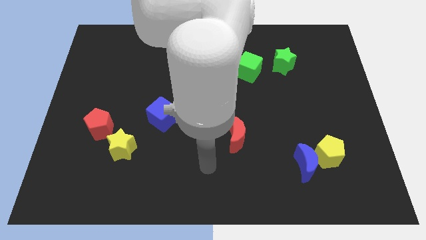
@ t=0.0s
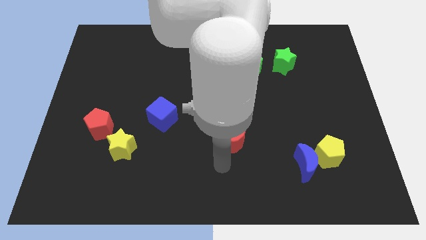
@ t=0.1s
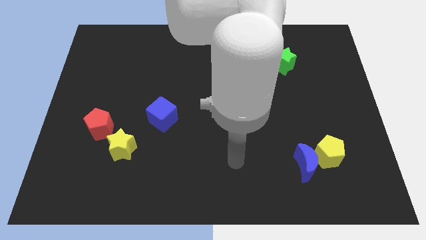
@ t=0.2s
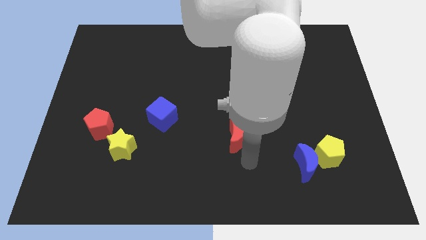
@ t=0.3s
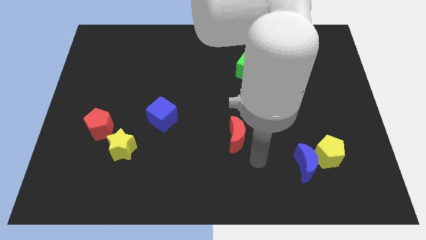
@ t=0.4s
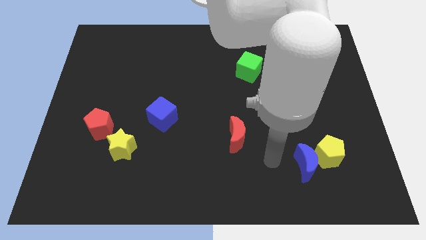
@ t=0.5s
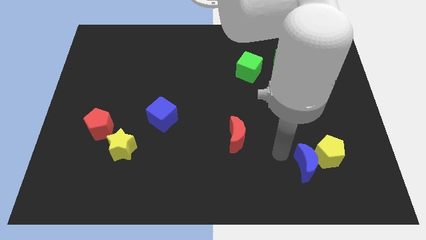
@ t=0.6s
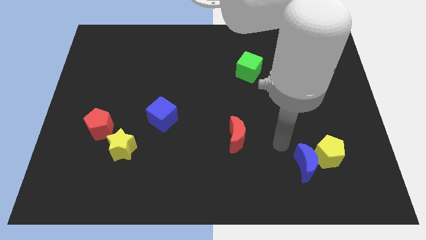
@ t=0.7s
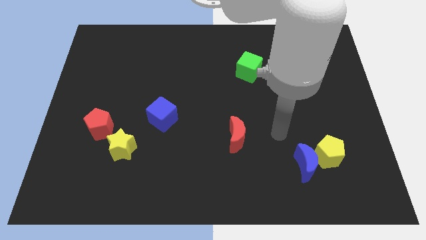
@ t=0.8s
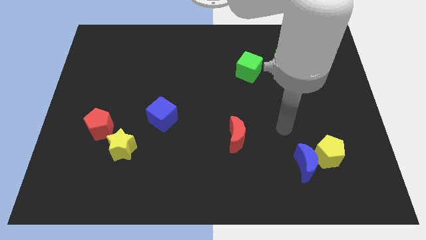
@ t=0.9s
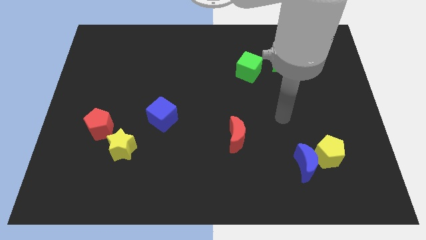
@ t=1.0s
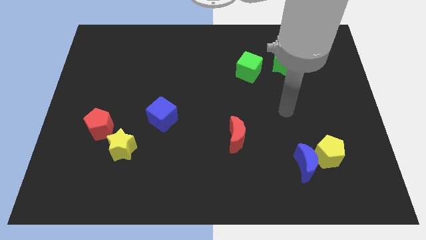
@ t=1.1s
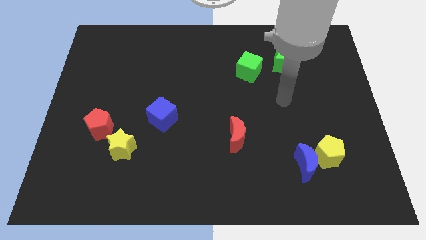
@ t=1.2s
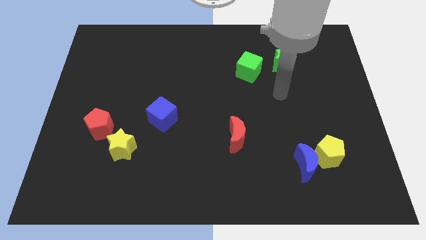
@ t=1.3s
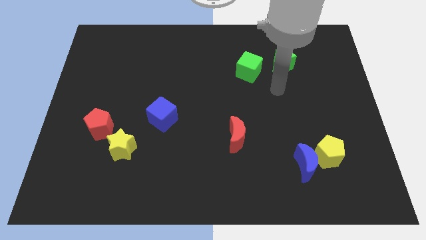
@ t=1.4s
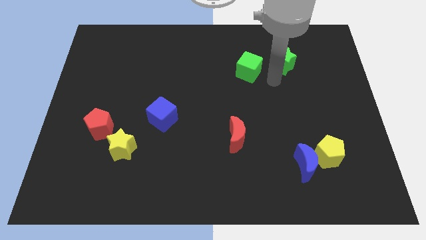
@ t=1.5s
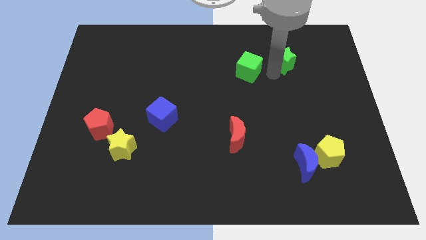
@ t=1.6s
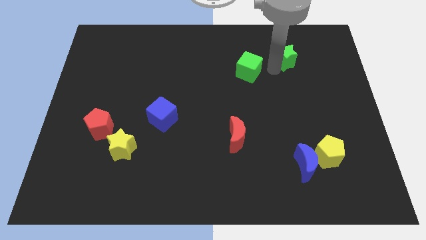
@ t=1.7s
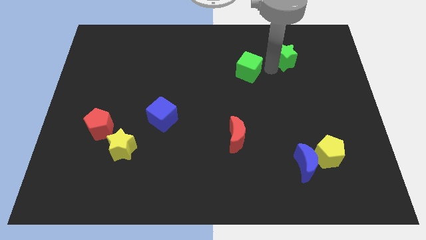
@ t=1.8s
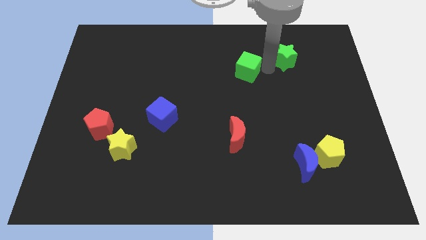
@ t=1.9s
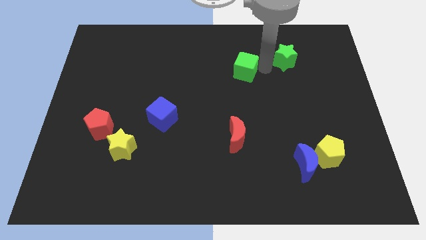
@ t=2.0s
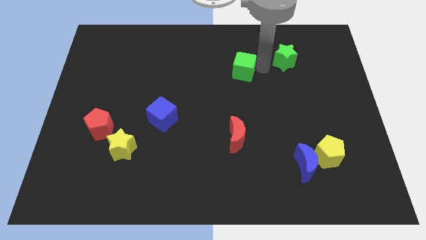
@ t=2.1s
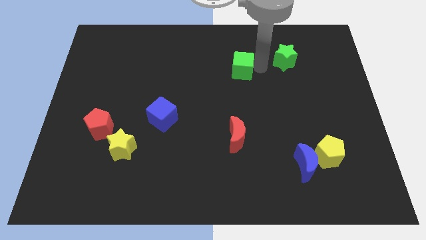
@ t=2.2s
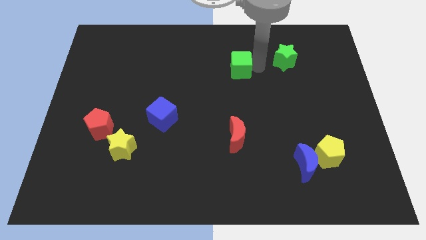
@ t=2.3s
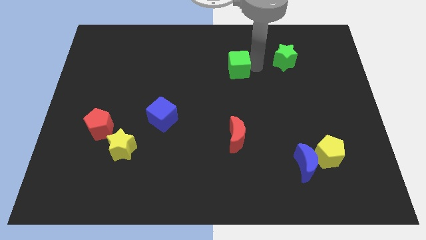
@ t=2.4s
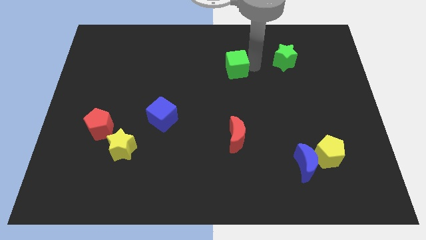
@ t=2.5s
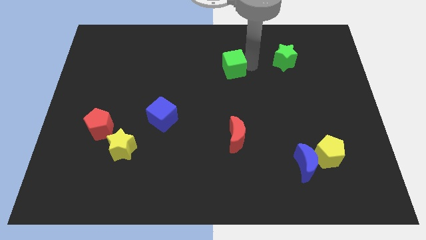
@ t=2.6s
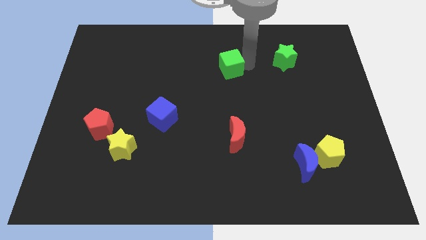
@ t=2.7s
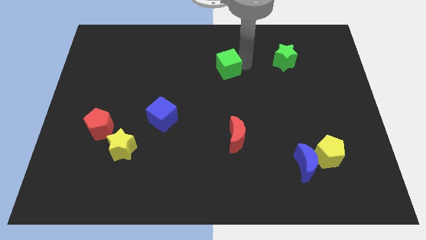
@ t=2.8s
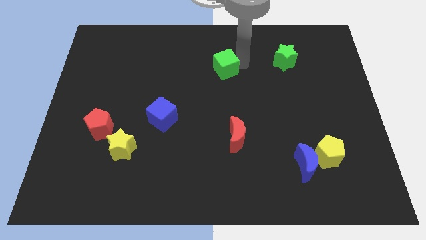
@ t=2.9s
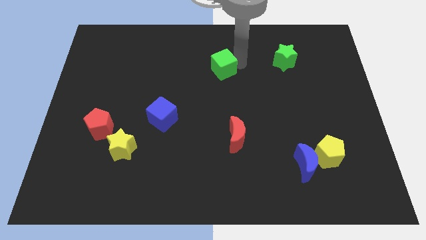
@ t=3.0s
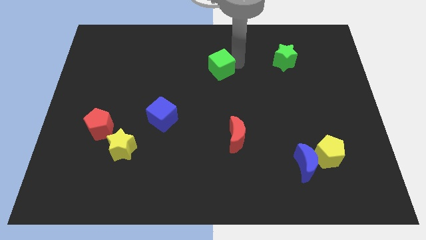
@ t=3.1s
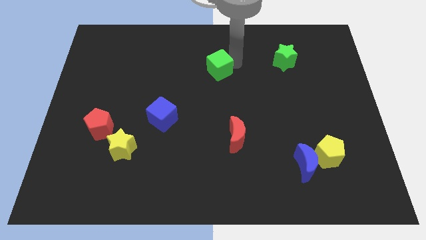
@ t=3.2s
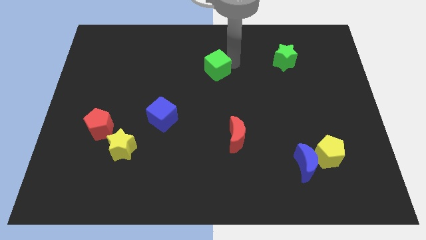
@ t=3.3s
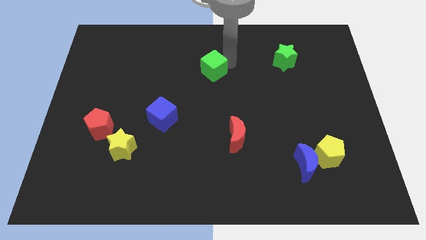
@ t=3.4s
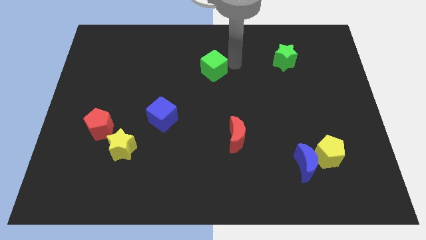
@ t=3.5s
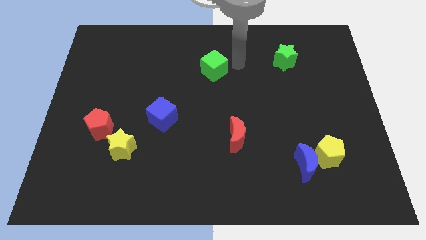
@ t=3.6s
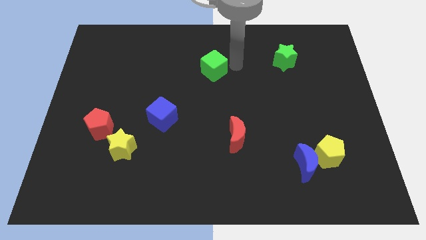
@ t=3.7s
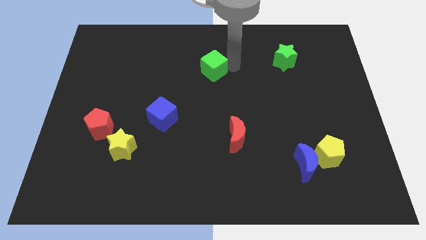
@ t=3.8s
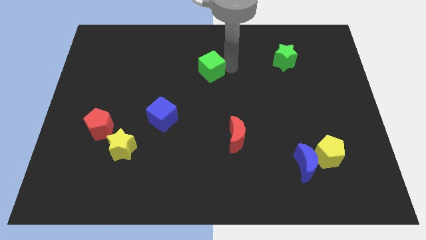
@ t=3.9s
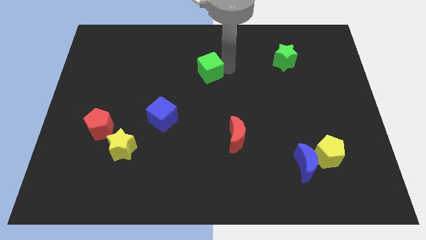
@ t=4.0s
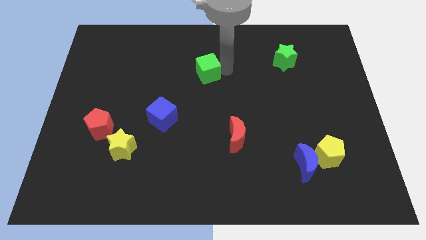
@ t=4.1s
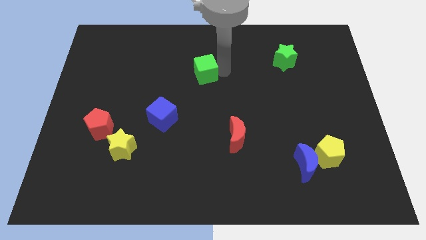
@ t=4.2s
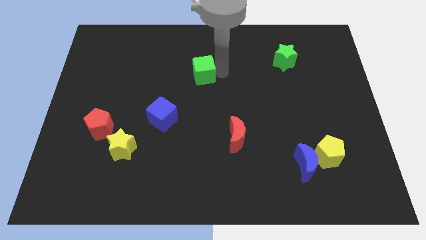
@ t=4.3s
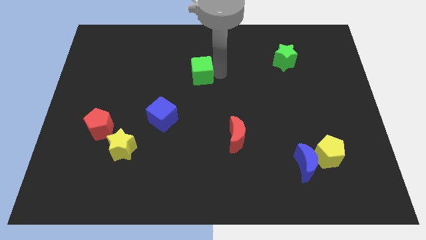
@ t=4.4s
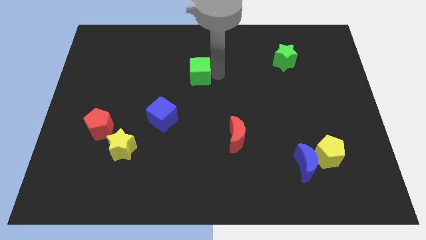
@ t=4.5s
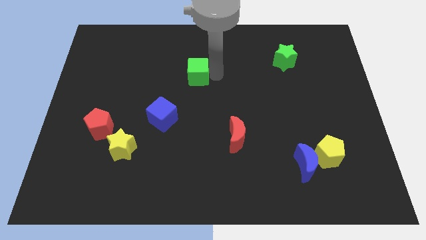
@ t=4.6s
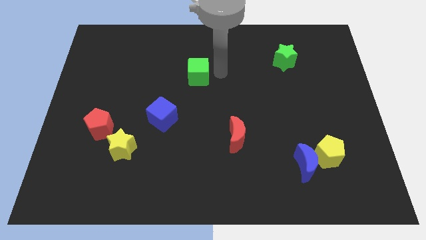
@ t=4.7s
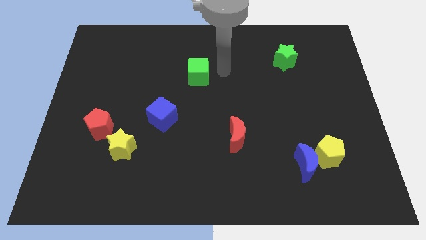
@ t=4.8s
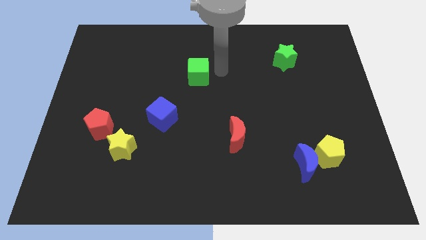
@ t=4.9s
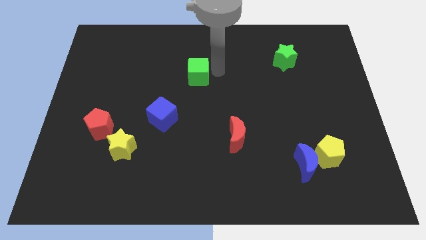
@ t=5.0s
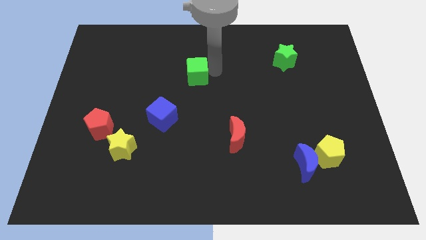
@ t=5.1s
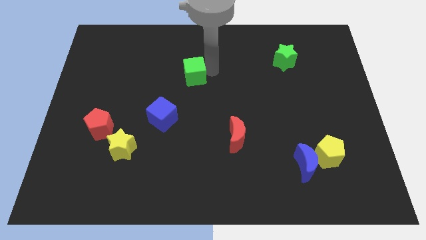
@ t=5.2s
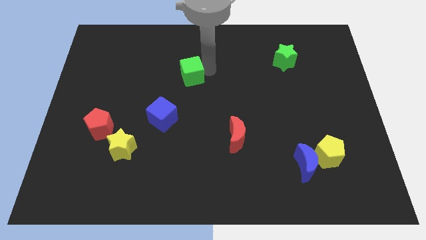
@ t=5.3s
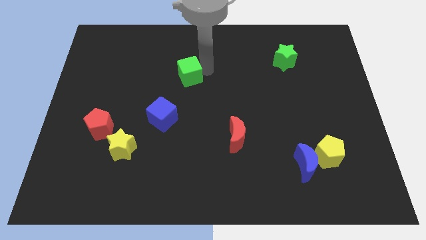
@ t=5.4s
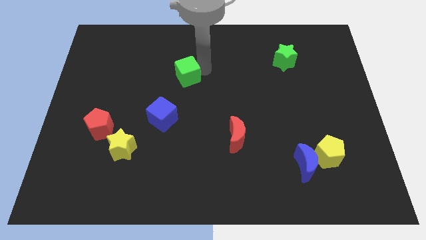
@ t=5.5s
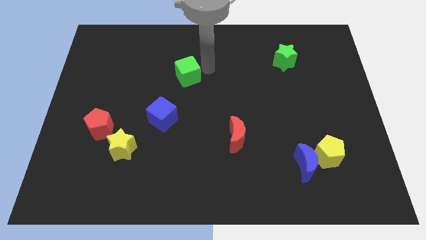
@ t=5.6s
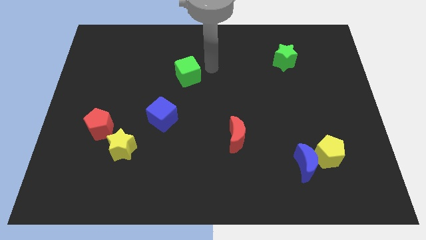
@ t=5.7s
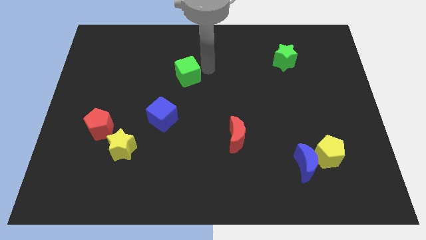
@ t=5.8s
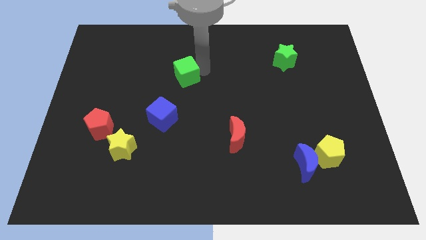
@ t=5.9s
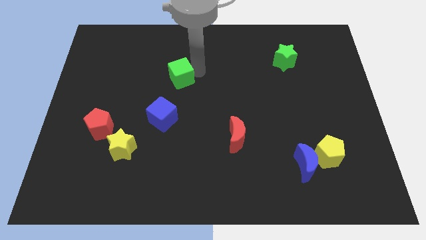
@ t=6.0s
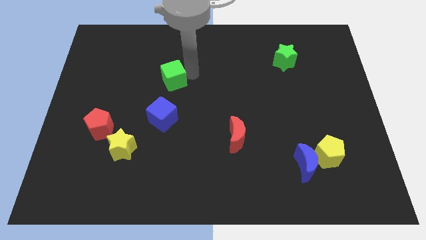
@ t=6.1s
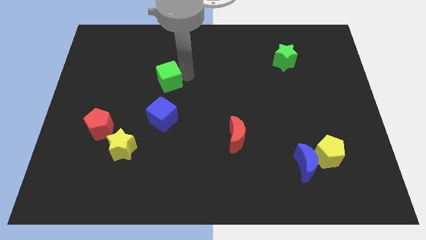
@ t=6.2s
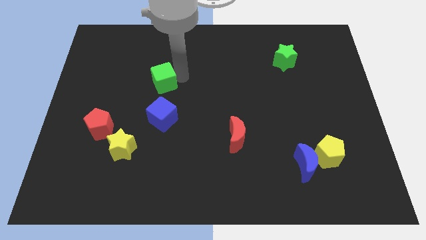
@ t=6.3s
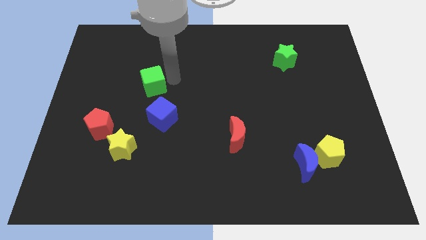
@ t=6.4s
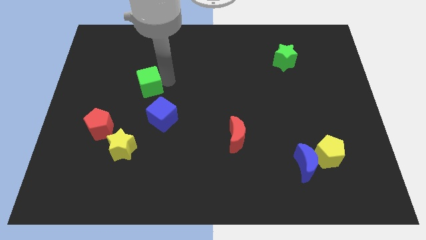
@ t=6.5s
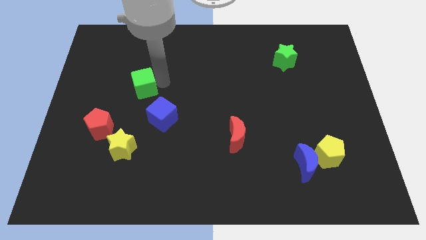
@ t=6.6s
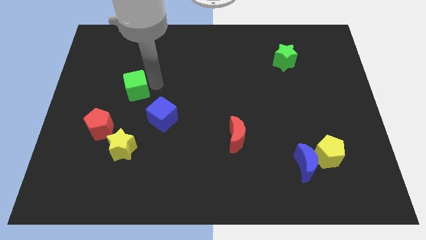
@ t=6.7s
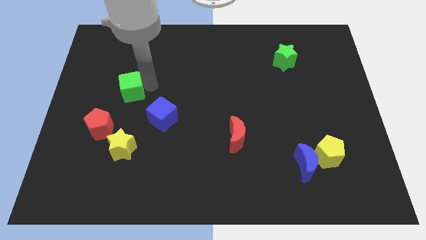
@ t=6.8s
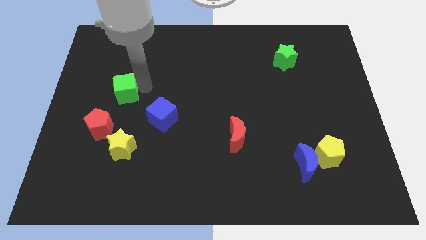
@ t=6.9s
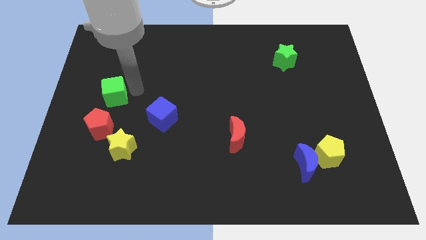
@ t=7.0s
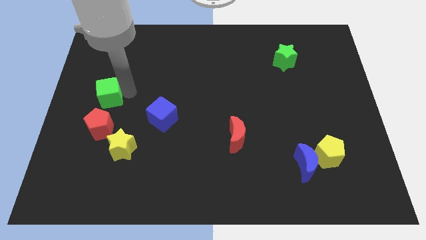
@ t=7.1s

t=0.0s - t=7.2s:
push the green cube to the center left
